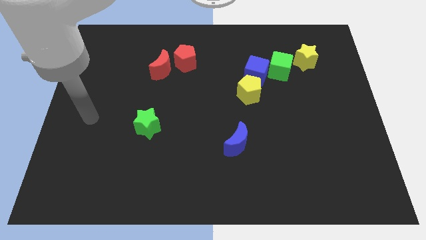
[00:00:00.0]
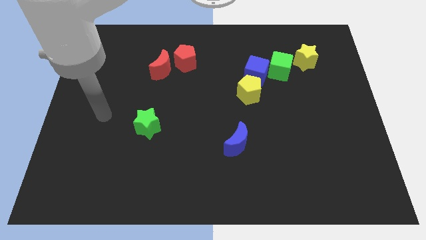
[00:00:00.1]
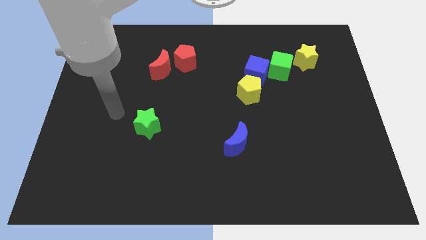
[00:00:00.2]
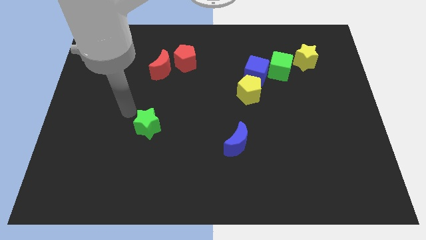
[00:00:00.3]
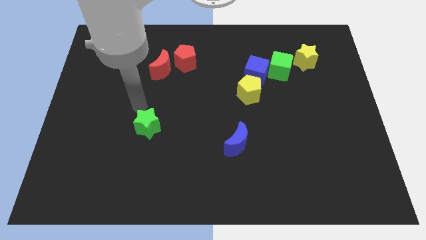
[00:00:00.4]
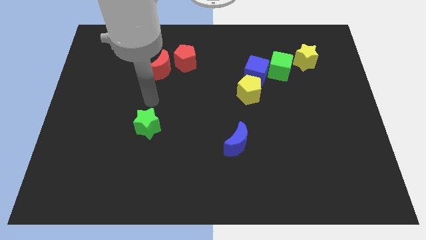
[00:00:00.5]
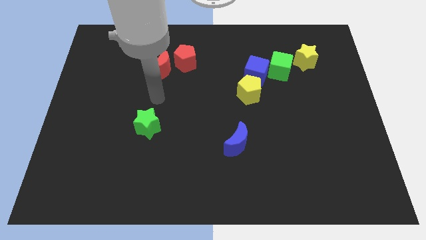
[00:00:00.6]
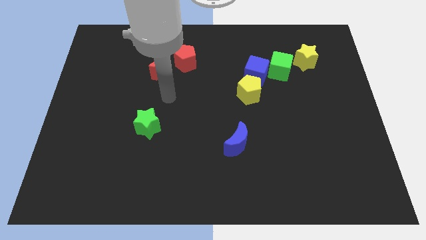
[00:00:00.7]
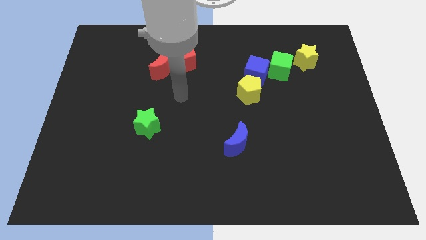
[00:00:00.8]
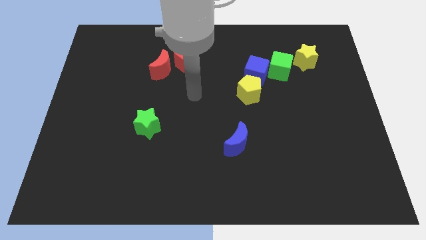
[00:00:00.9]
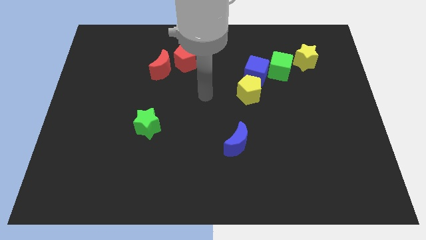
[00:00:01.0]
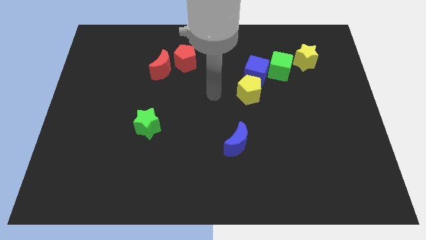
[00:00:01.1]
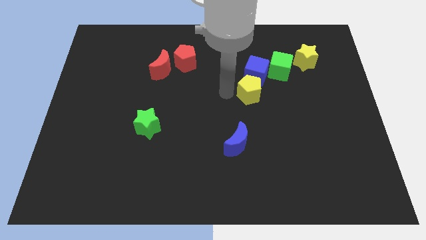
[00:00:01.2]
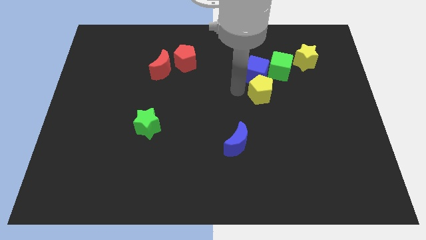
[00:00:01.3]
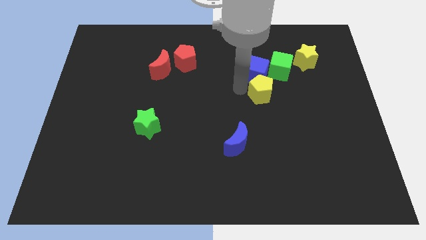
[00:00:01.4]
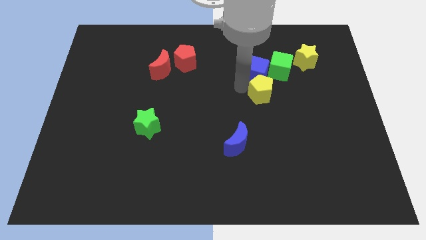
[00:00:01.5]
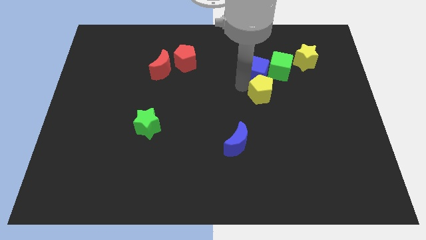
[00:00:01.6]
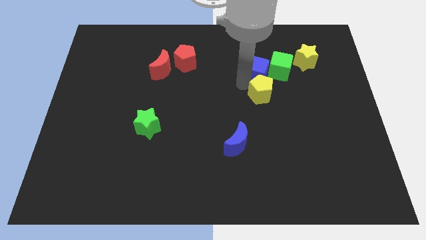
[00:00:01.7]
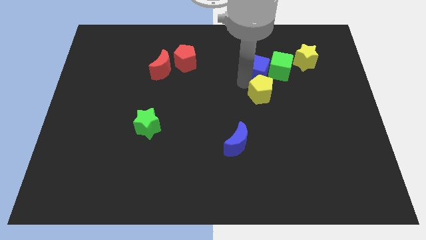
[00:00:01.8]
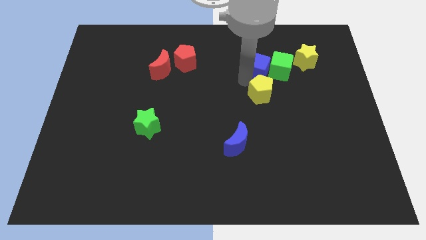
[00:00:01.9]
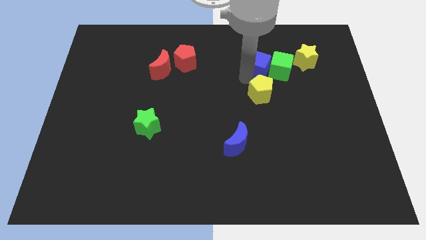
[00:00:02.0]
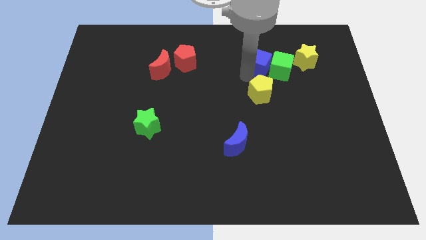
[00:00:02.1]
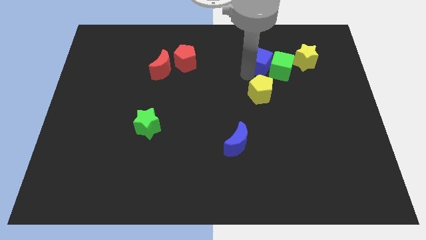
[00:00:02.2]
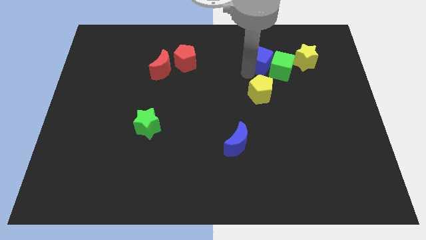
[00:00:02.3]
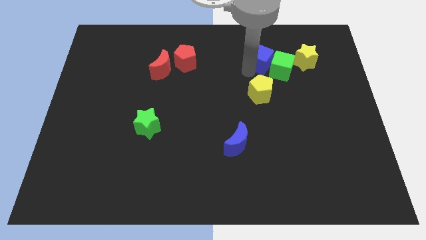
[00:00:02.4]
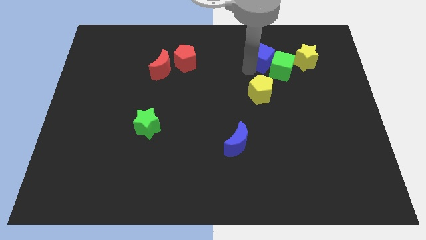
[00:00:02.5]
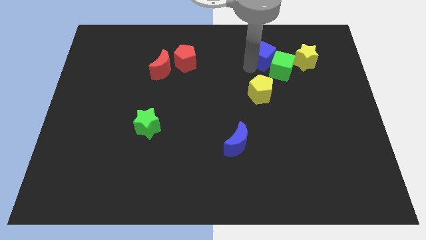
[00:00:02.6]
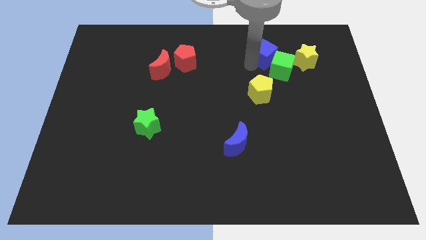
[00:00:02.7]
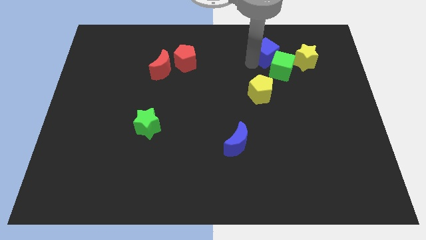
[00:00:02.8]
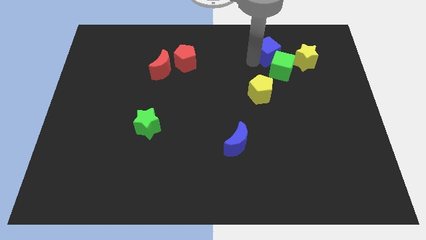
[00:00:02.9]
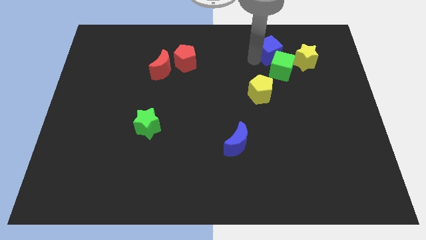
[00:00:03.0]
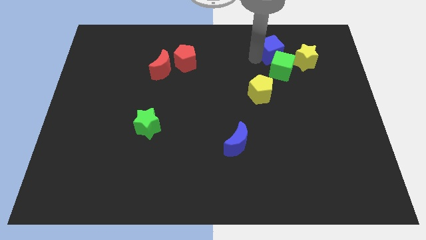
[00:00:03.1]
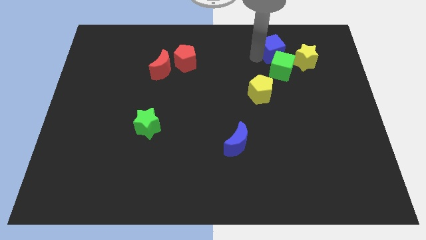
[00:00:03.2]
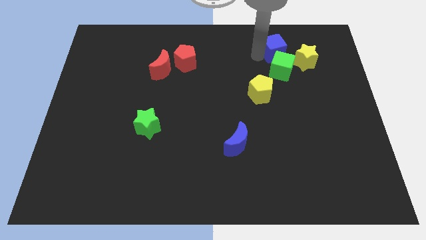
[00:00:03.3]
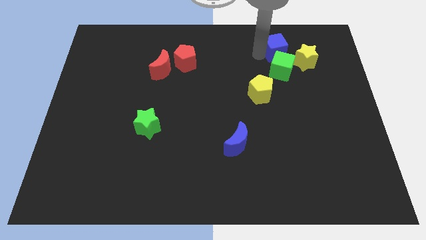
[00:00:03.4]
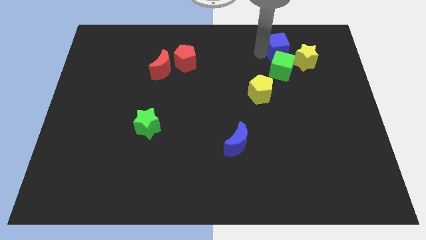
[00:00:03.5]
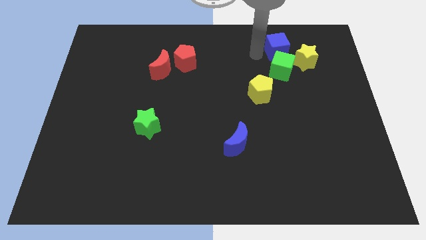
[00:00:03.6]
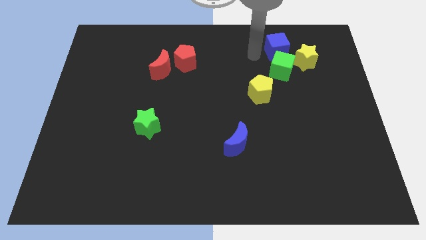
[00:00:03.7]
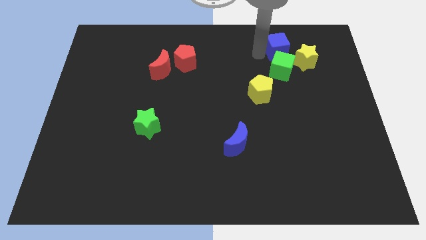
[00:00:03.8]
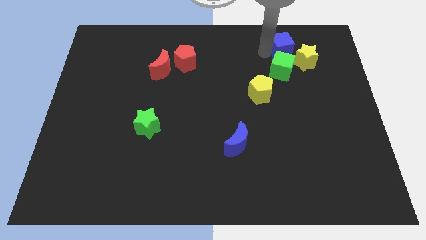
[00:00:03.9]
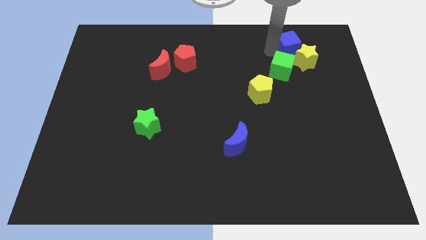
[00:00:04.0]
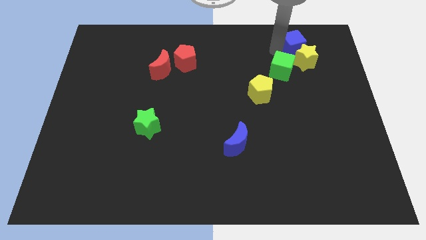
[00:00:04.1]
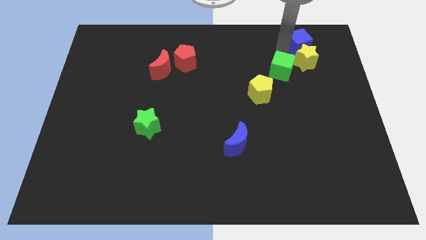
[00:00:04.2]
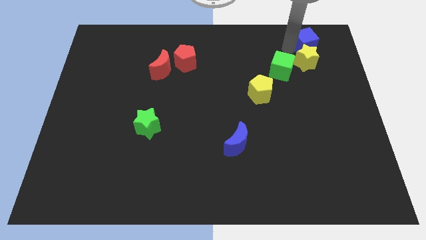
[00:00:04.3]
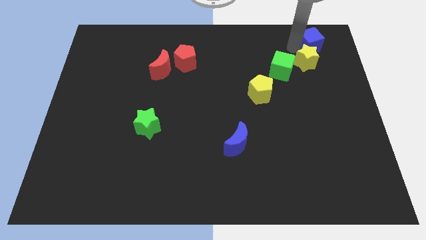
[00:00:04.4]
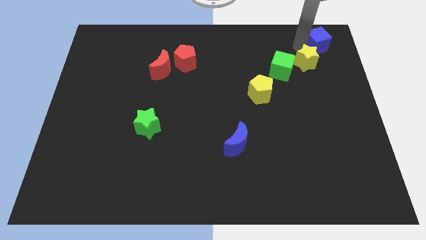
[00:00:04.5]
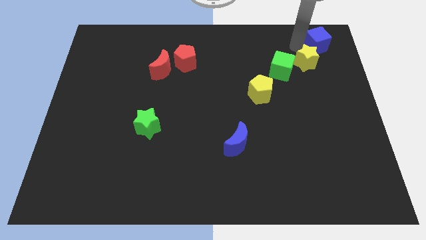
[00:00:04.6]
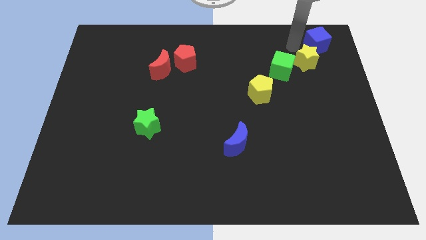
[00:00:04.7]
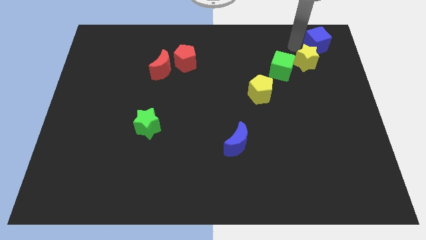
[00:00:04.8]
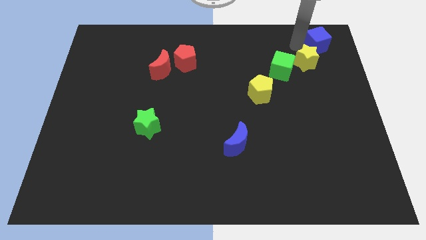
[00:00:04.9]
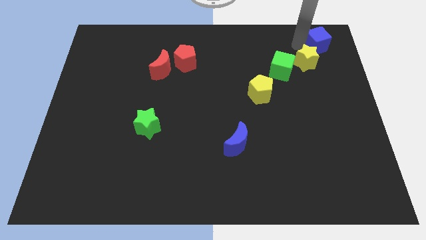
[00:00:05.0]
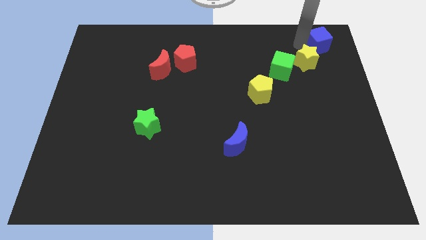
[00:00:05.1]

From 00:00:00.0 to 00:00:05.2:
put the blue cube to the top right corner

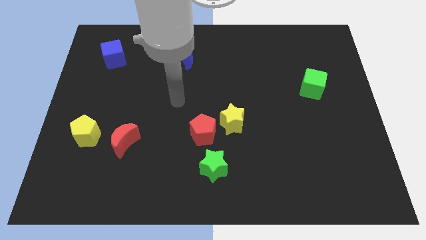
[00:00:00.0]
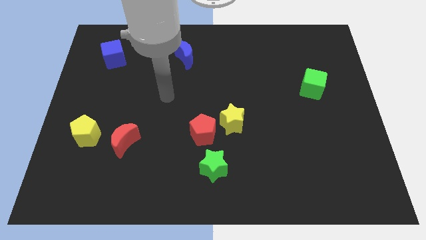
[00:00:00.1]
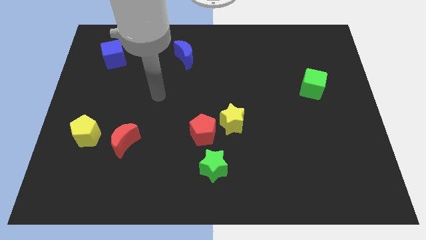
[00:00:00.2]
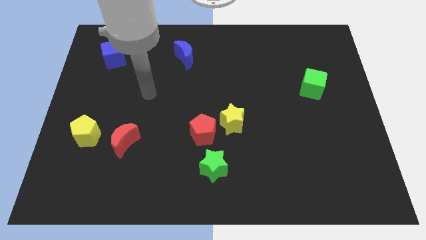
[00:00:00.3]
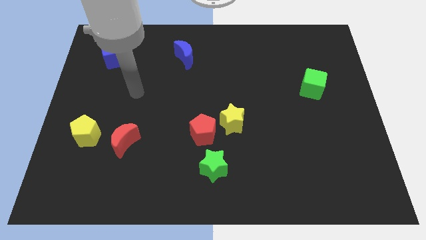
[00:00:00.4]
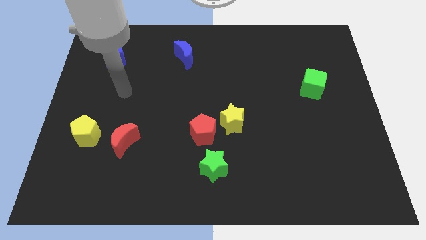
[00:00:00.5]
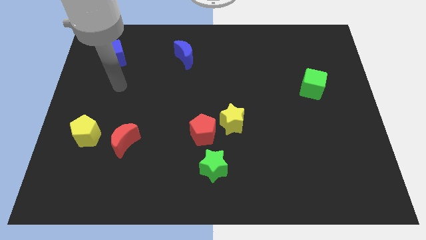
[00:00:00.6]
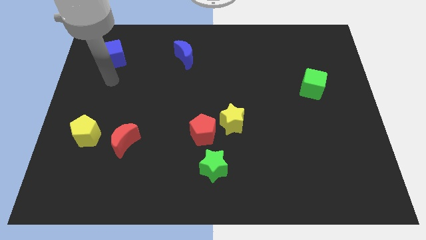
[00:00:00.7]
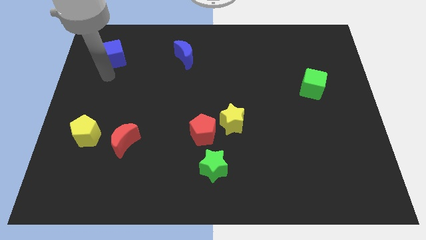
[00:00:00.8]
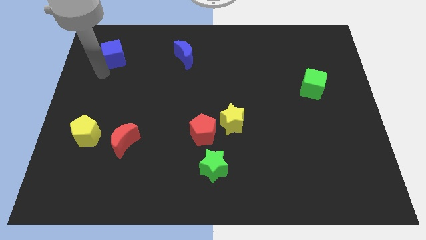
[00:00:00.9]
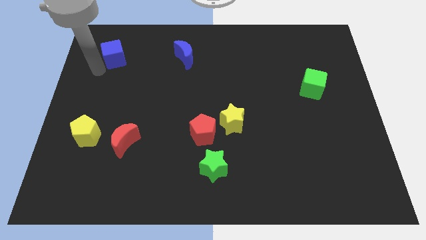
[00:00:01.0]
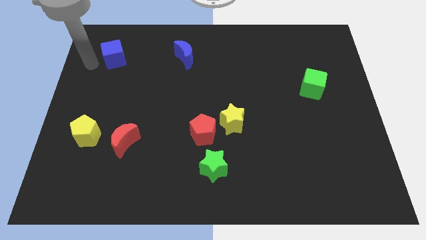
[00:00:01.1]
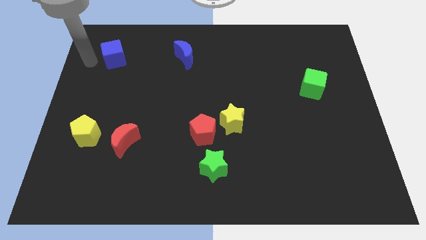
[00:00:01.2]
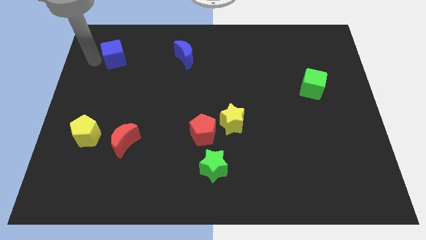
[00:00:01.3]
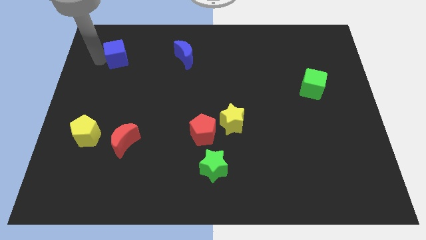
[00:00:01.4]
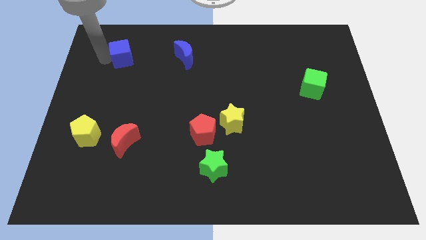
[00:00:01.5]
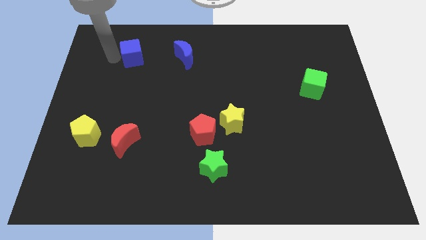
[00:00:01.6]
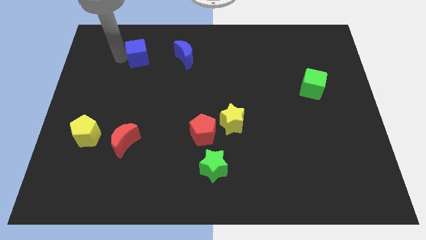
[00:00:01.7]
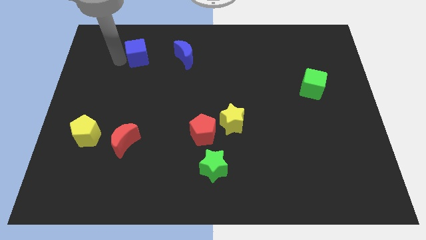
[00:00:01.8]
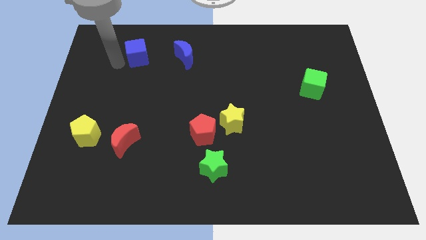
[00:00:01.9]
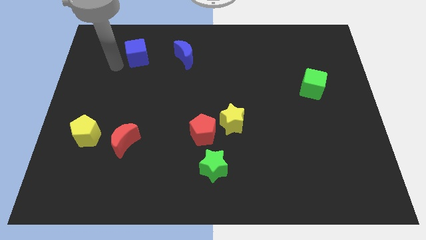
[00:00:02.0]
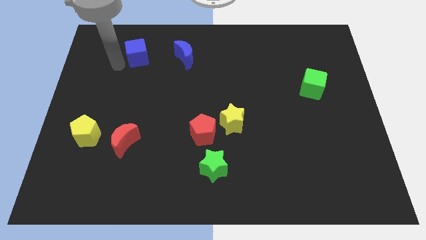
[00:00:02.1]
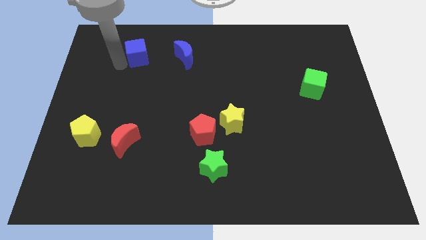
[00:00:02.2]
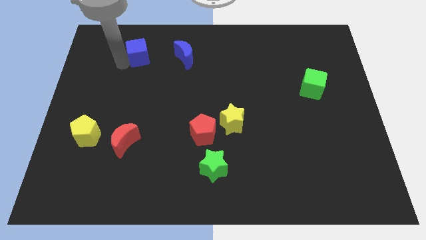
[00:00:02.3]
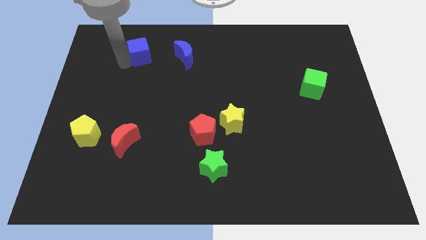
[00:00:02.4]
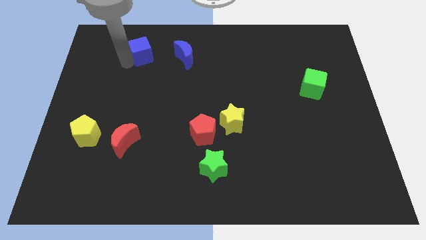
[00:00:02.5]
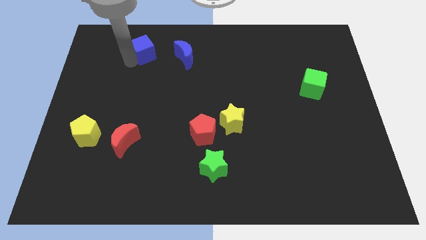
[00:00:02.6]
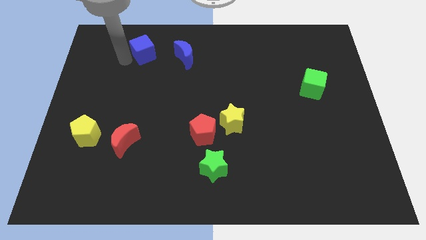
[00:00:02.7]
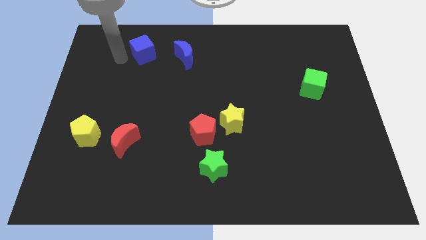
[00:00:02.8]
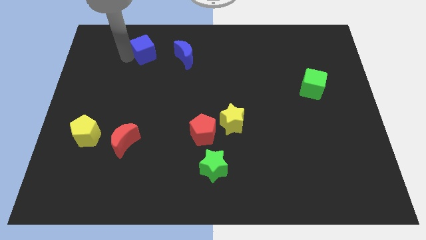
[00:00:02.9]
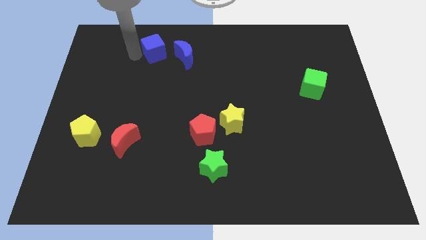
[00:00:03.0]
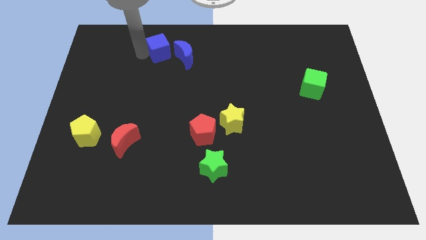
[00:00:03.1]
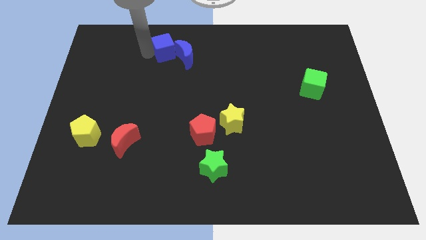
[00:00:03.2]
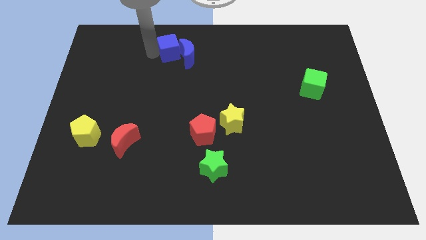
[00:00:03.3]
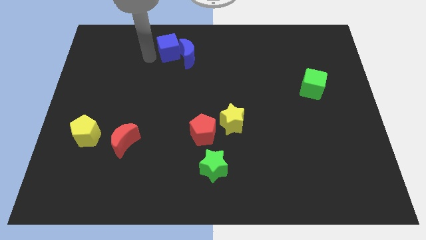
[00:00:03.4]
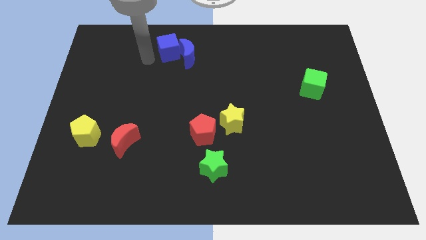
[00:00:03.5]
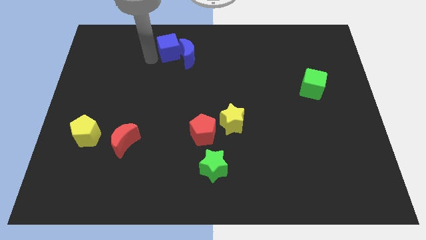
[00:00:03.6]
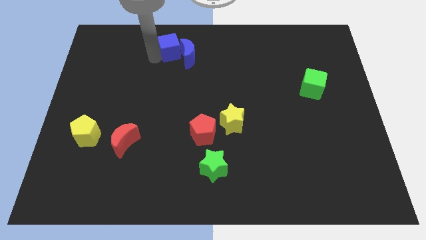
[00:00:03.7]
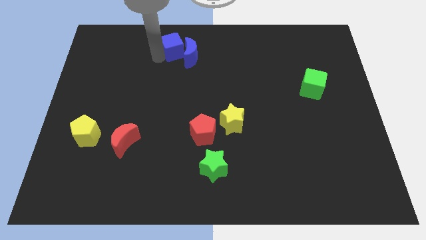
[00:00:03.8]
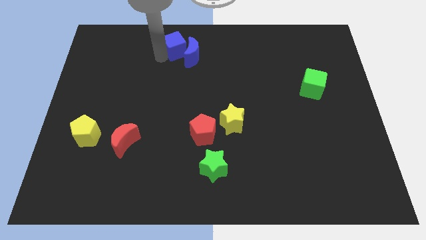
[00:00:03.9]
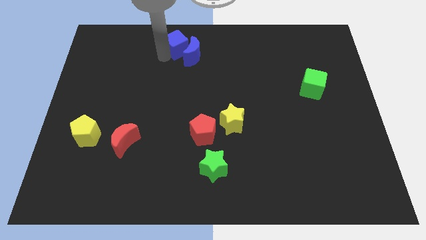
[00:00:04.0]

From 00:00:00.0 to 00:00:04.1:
move the blue cube to the top side
